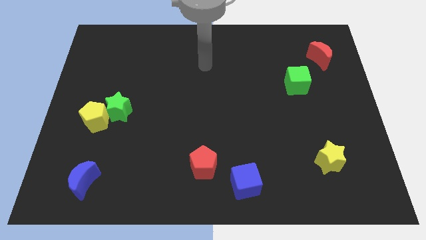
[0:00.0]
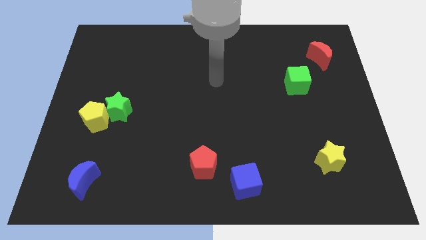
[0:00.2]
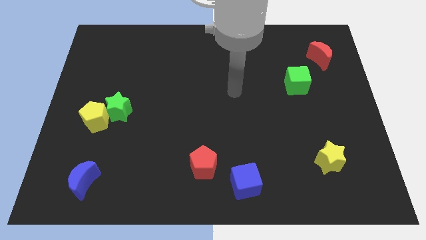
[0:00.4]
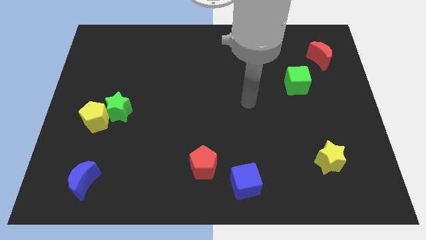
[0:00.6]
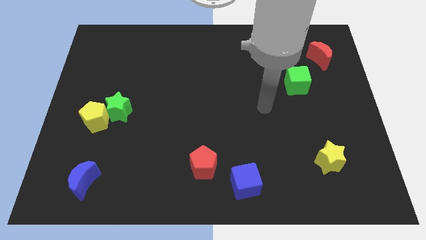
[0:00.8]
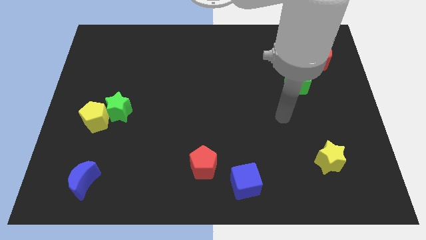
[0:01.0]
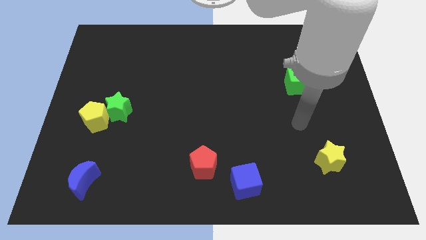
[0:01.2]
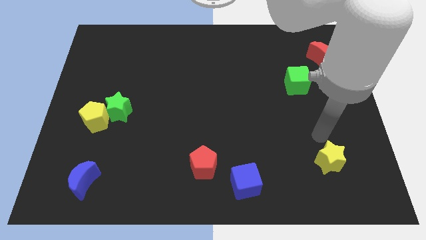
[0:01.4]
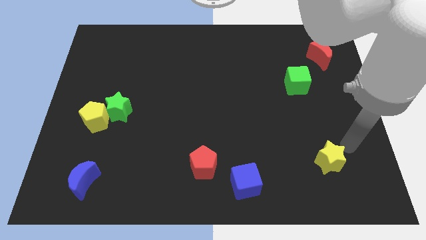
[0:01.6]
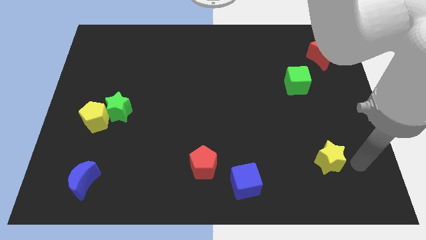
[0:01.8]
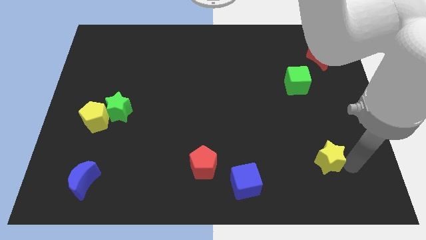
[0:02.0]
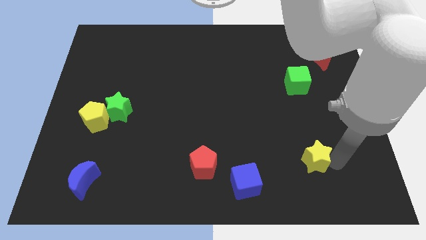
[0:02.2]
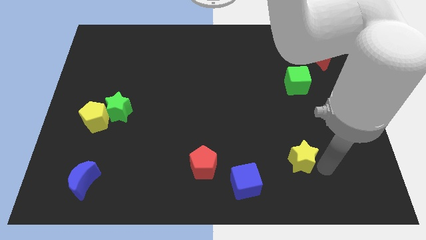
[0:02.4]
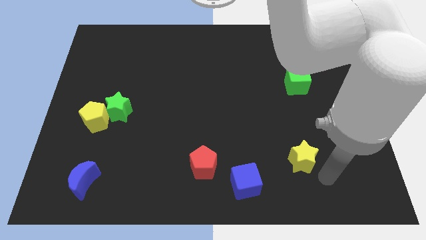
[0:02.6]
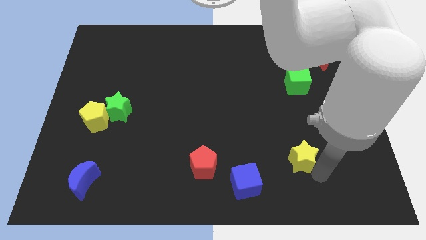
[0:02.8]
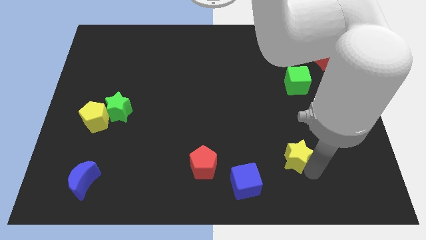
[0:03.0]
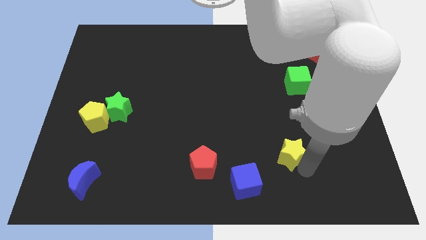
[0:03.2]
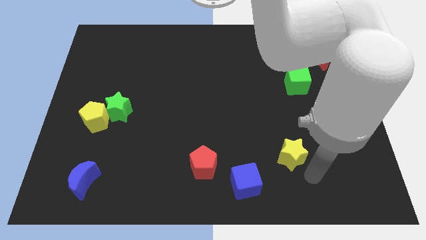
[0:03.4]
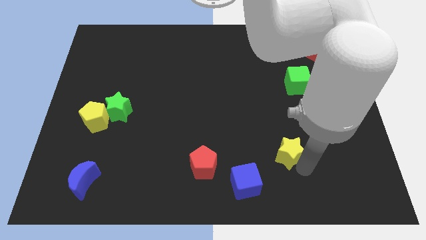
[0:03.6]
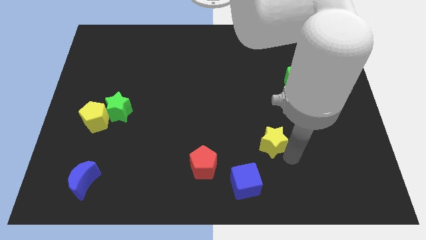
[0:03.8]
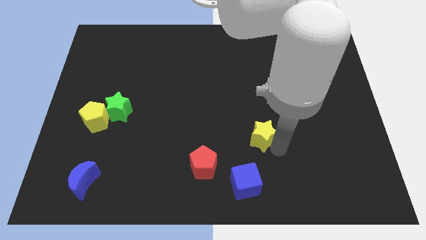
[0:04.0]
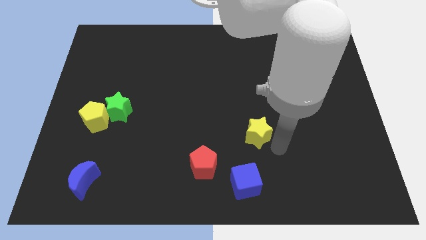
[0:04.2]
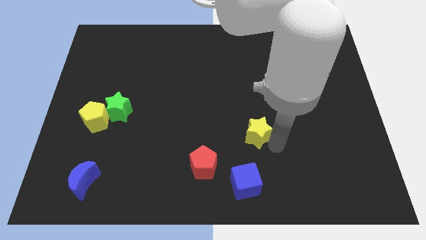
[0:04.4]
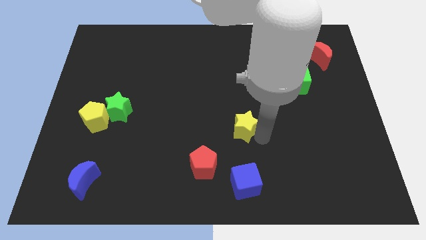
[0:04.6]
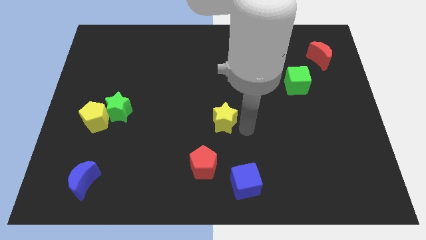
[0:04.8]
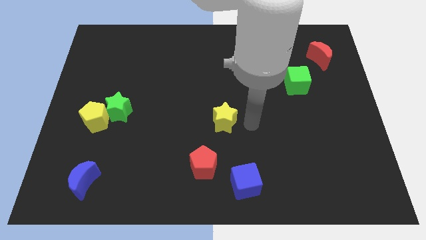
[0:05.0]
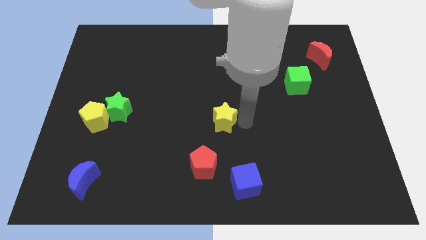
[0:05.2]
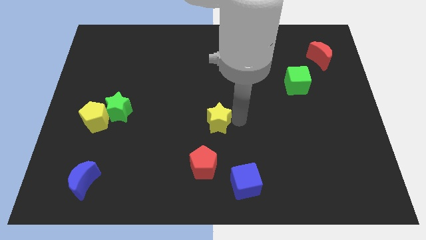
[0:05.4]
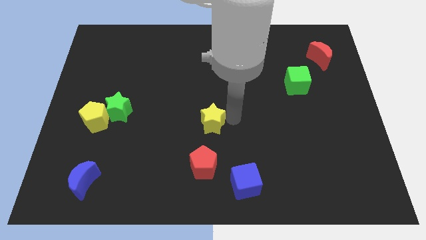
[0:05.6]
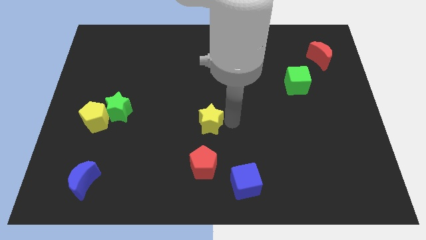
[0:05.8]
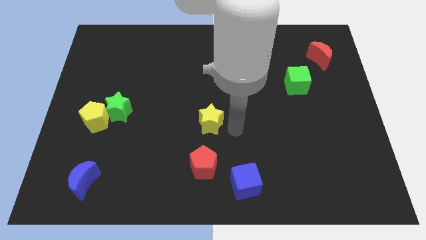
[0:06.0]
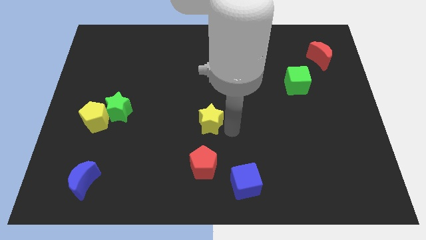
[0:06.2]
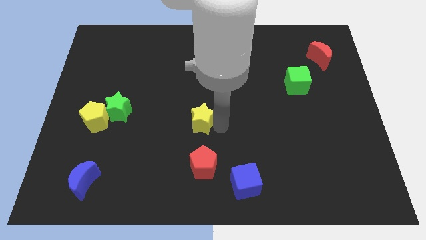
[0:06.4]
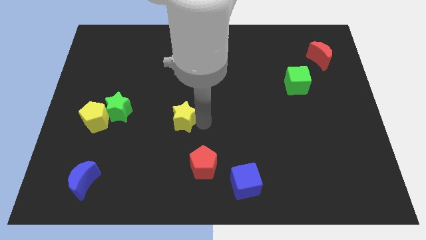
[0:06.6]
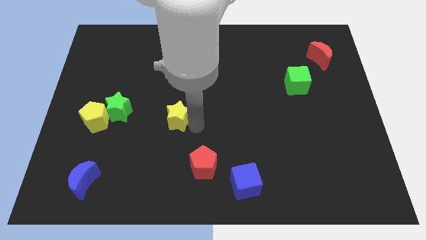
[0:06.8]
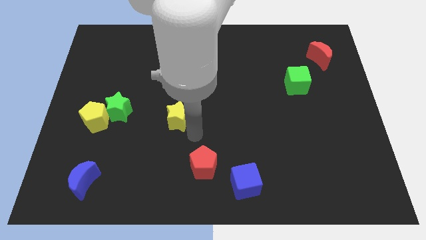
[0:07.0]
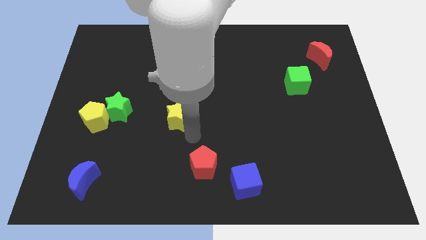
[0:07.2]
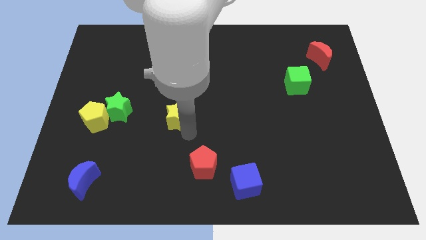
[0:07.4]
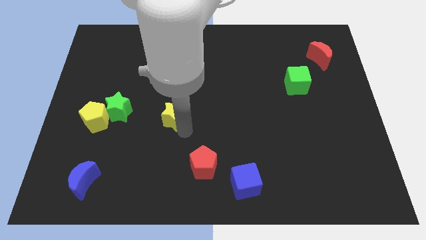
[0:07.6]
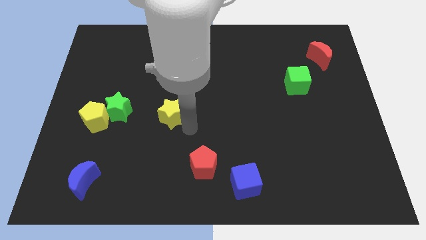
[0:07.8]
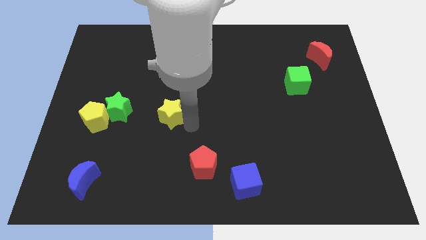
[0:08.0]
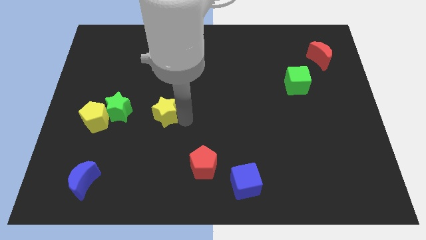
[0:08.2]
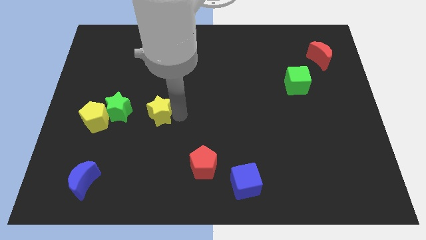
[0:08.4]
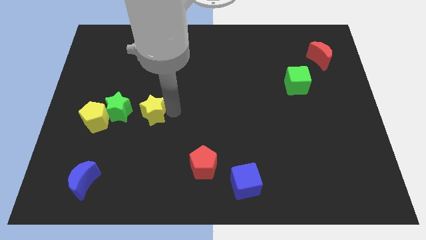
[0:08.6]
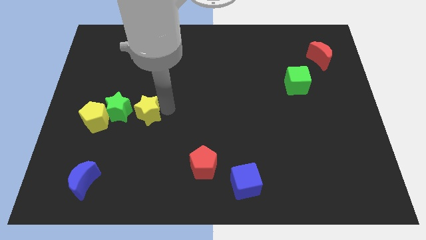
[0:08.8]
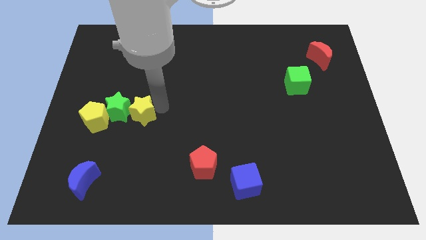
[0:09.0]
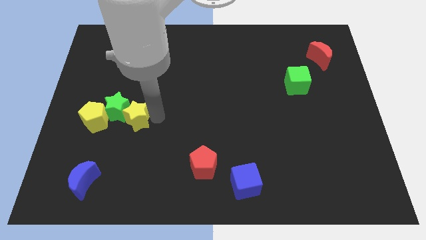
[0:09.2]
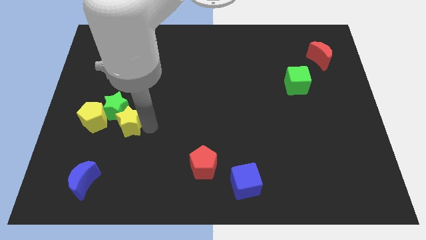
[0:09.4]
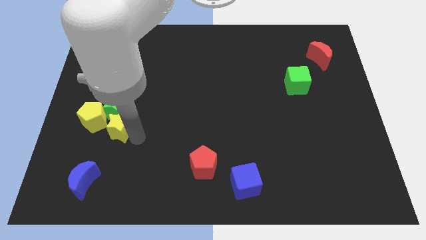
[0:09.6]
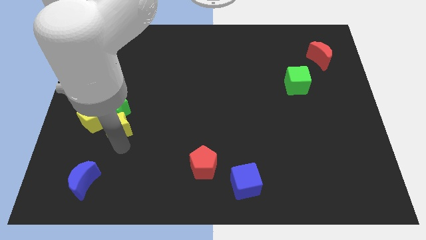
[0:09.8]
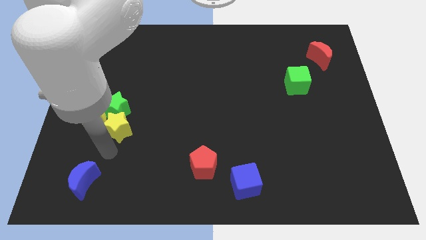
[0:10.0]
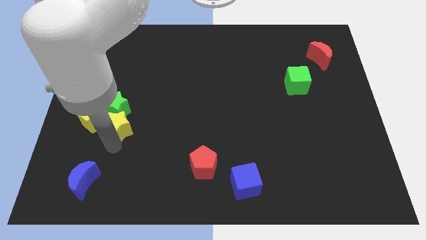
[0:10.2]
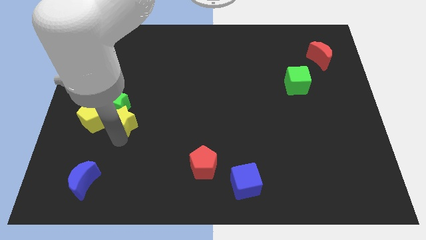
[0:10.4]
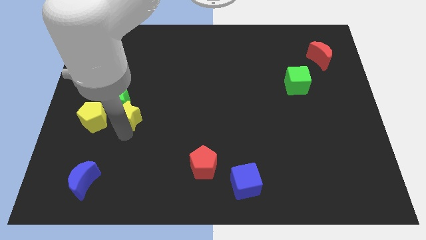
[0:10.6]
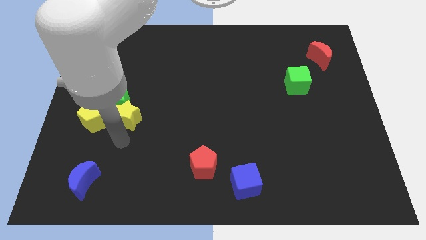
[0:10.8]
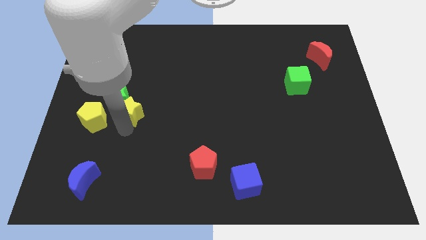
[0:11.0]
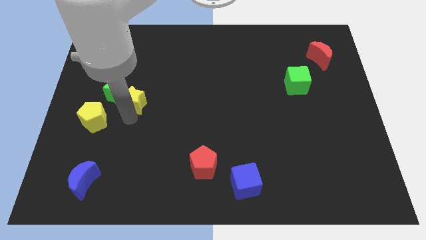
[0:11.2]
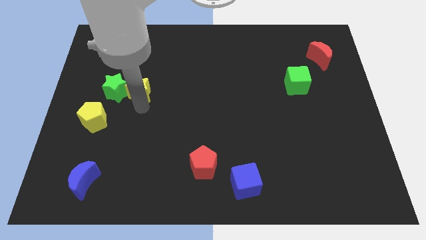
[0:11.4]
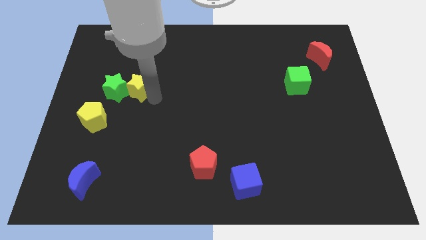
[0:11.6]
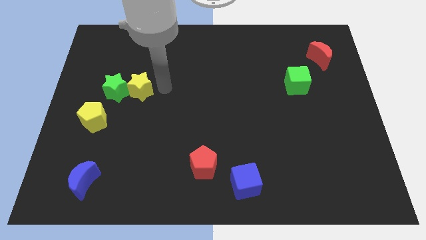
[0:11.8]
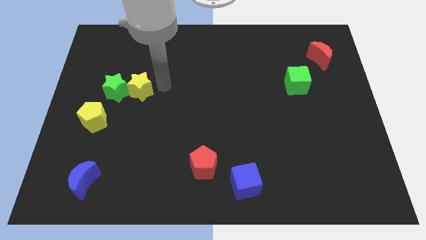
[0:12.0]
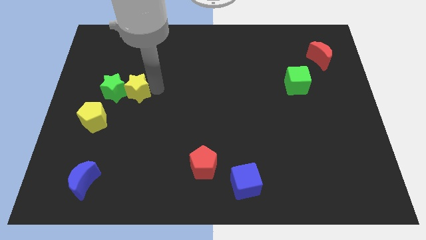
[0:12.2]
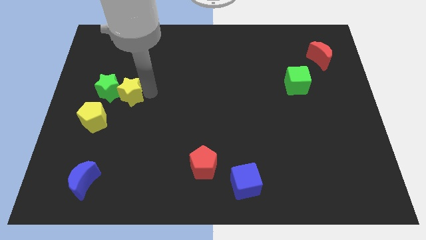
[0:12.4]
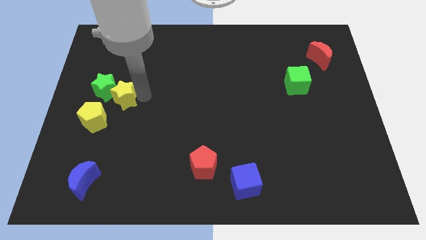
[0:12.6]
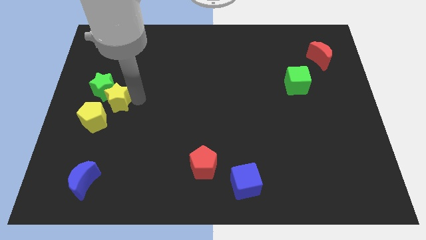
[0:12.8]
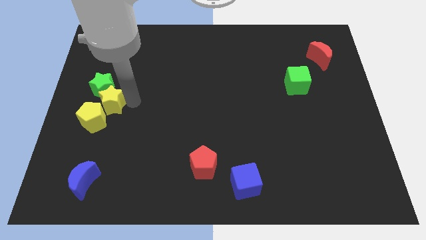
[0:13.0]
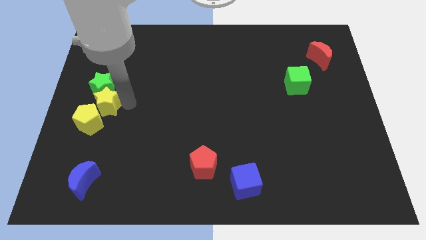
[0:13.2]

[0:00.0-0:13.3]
push the yellow star to the center left
